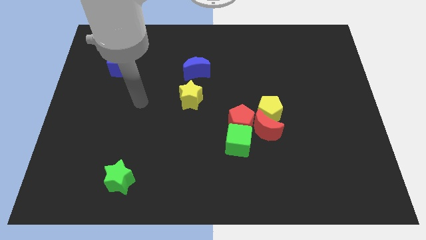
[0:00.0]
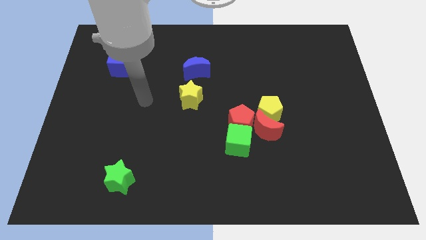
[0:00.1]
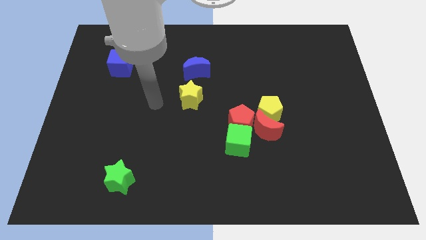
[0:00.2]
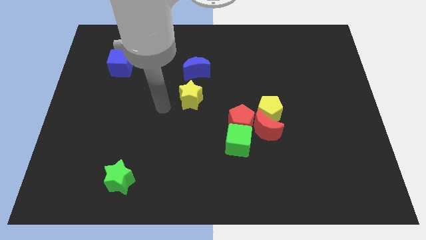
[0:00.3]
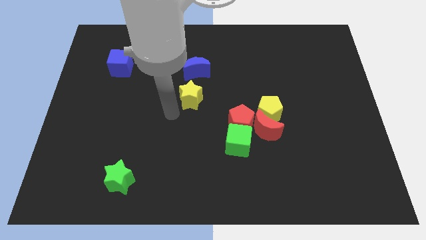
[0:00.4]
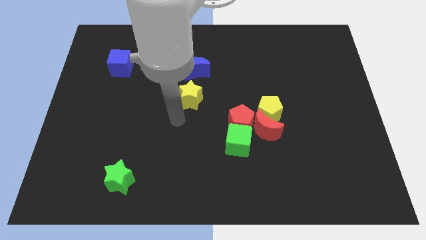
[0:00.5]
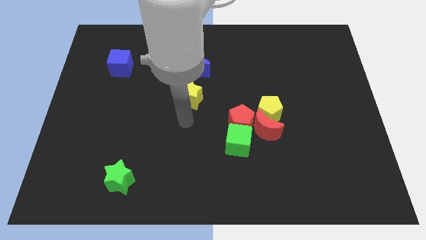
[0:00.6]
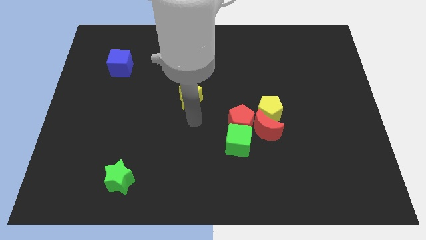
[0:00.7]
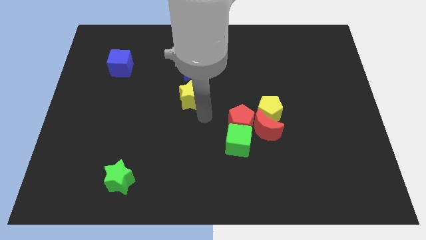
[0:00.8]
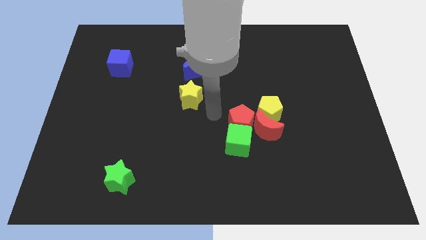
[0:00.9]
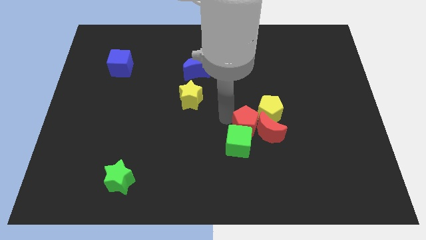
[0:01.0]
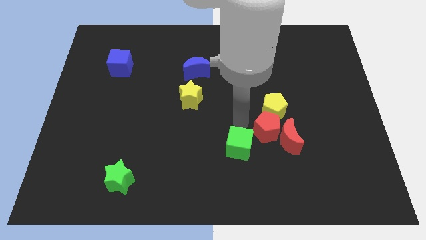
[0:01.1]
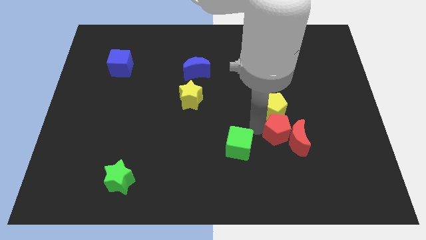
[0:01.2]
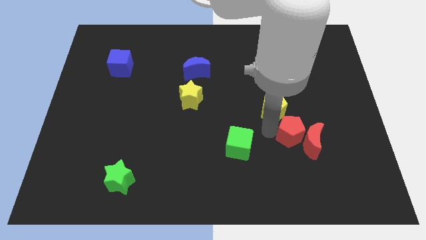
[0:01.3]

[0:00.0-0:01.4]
pull the red moon apart from the yellow pentagon, red pentagon, and green cube

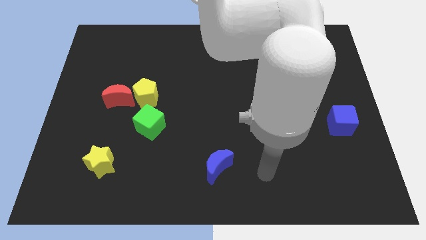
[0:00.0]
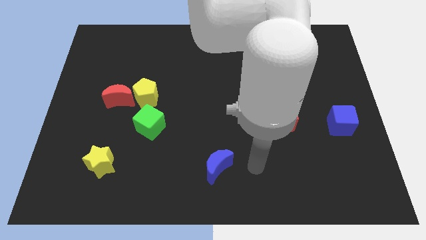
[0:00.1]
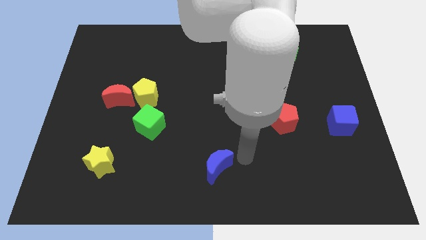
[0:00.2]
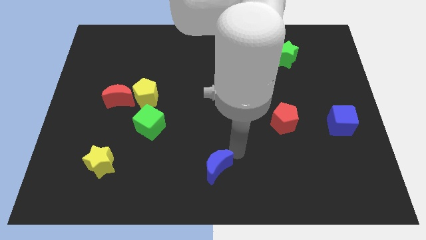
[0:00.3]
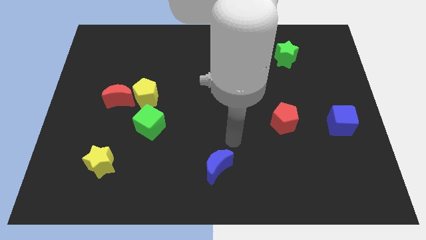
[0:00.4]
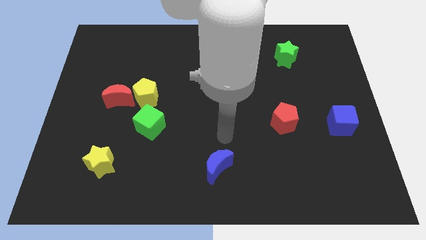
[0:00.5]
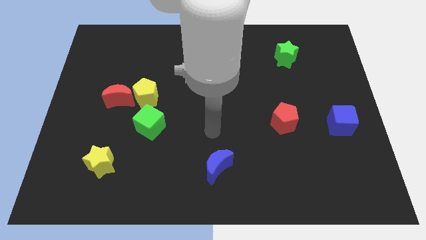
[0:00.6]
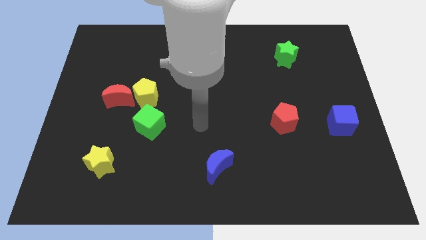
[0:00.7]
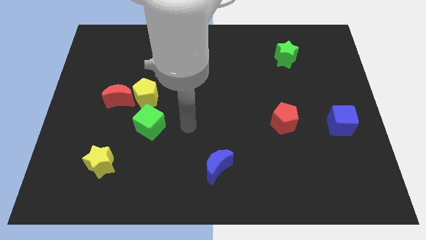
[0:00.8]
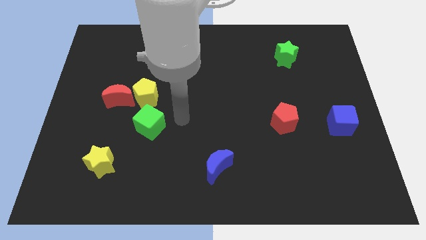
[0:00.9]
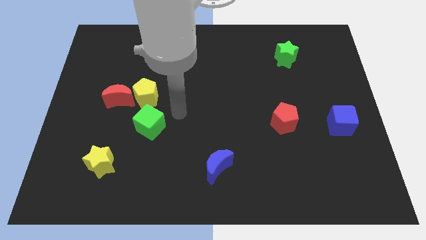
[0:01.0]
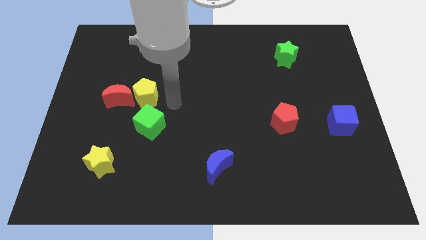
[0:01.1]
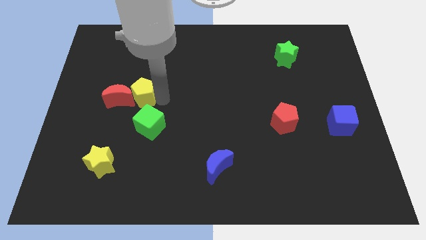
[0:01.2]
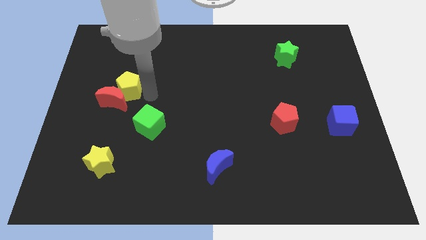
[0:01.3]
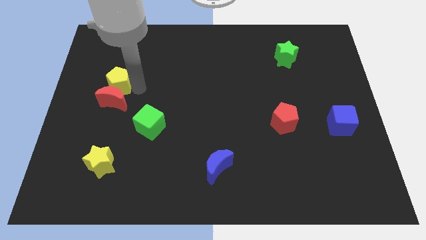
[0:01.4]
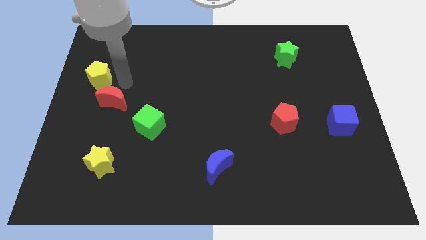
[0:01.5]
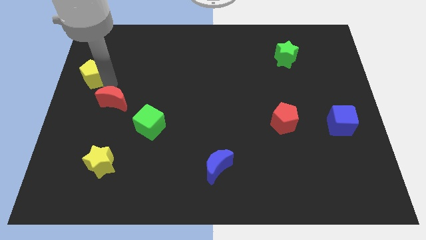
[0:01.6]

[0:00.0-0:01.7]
pull the red moon apart from the yellow pentagon

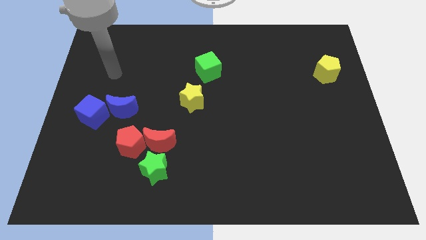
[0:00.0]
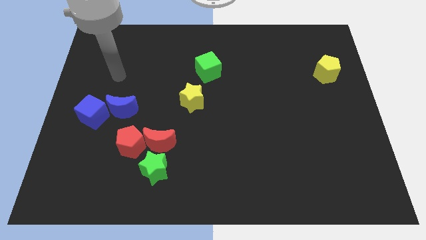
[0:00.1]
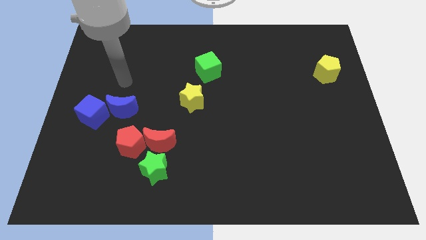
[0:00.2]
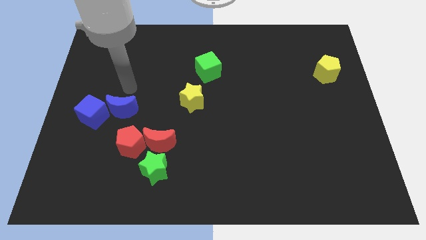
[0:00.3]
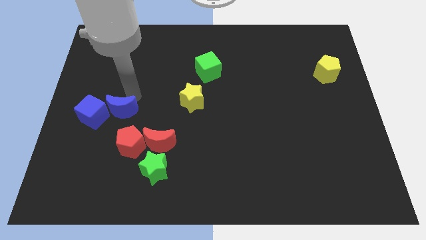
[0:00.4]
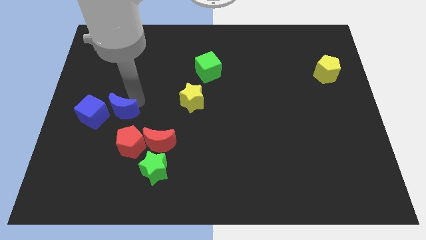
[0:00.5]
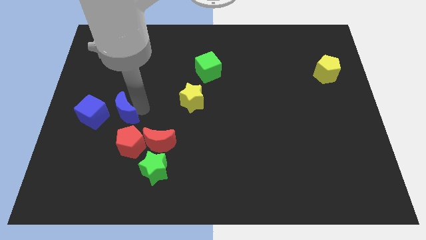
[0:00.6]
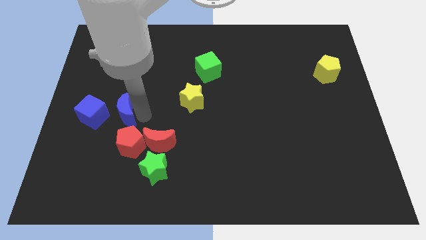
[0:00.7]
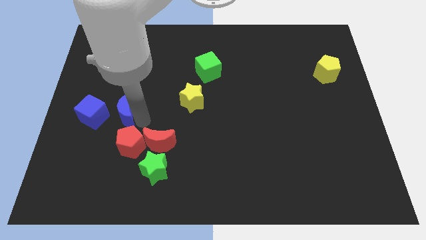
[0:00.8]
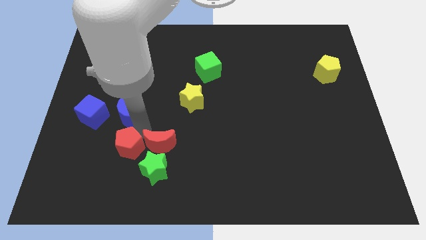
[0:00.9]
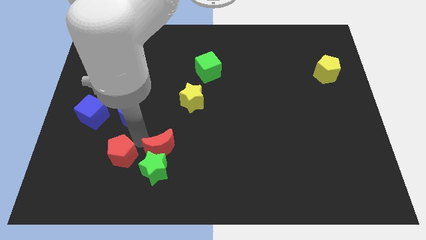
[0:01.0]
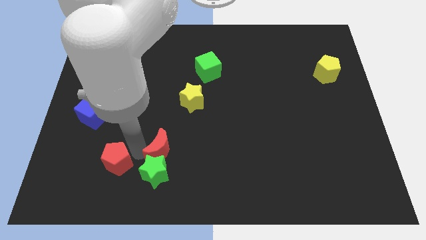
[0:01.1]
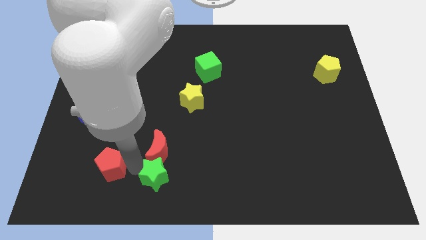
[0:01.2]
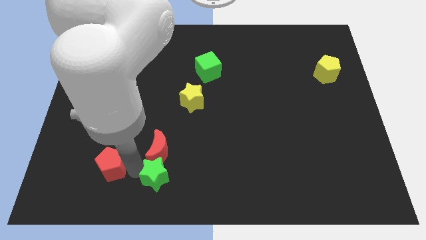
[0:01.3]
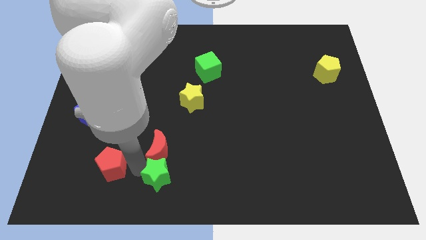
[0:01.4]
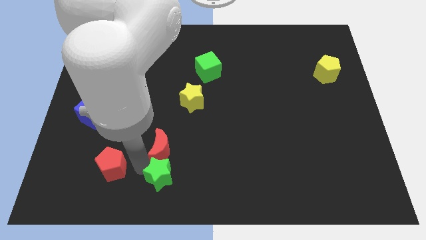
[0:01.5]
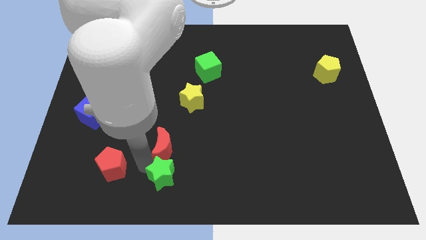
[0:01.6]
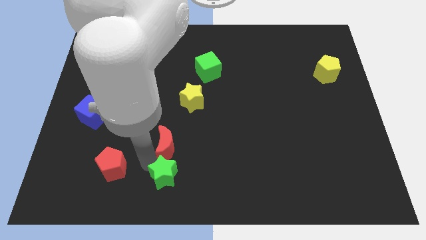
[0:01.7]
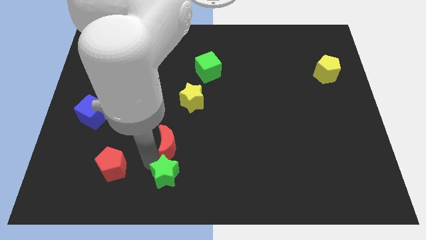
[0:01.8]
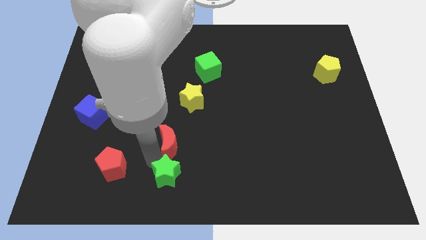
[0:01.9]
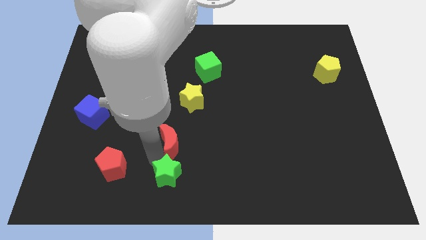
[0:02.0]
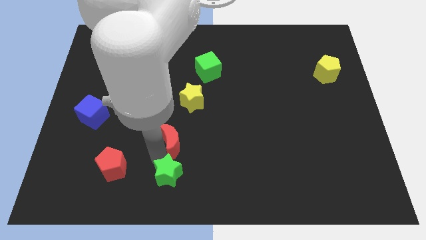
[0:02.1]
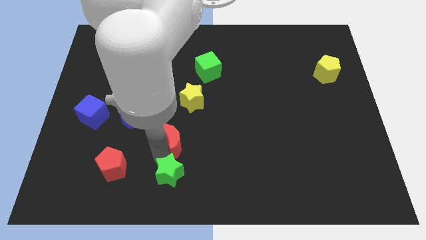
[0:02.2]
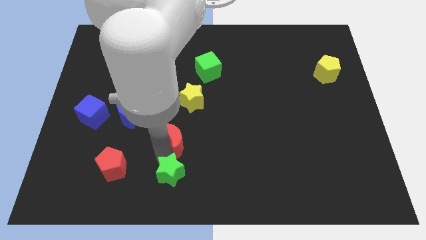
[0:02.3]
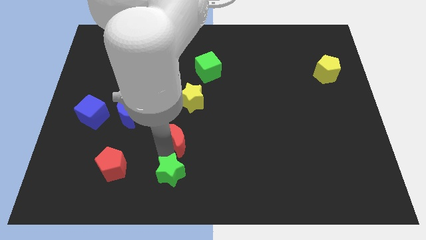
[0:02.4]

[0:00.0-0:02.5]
move the red moon away from the red pentagon and green star

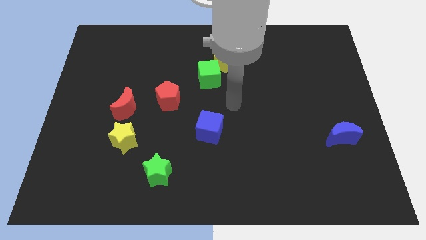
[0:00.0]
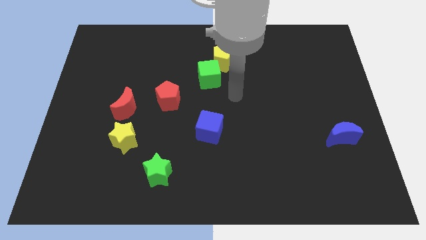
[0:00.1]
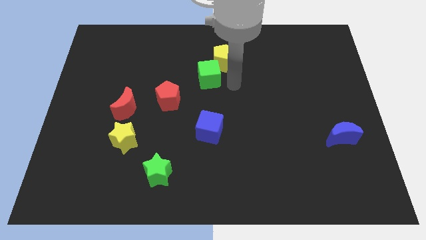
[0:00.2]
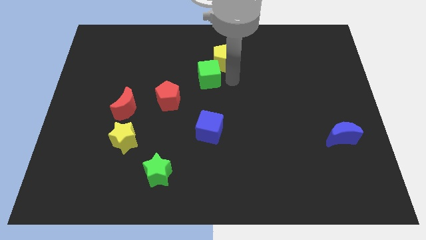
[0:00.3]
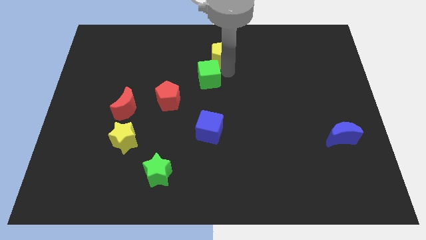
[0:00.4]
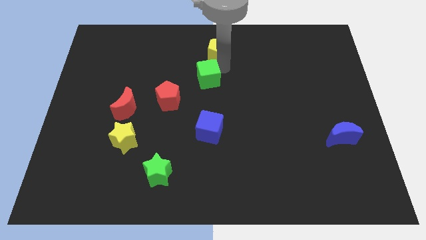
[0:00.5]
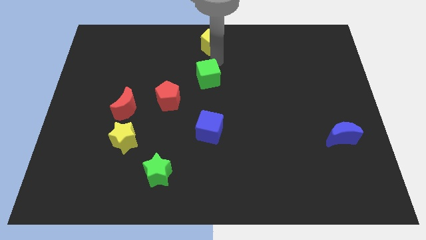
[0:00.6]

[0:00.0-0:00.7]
move the green cube away from the yellow pentagon

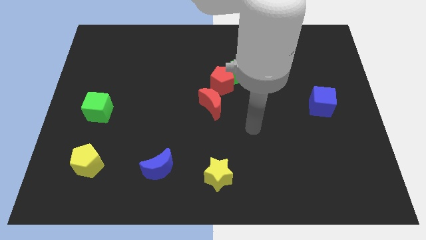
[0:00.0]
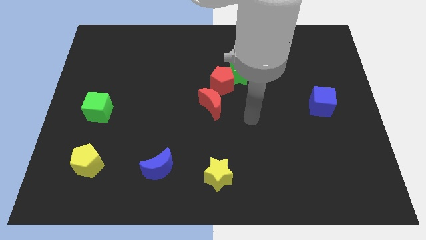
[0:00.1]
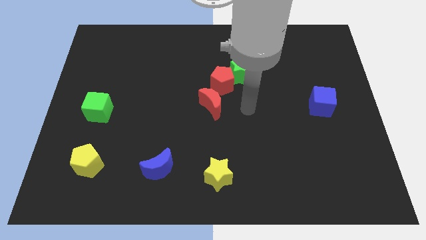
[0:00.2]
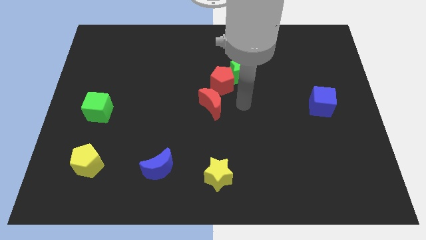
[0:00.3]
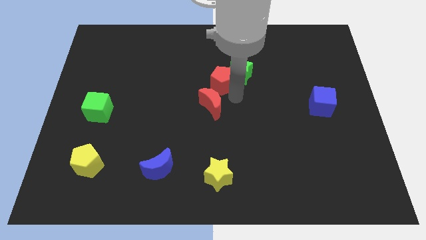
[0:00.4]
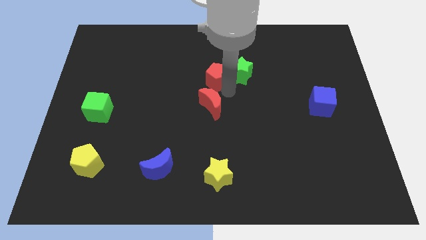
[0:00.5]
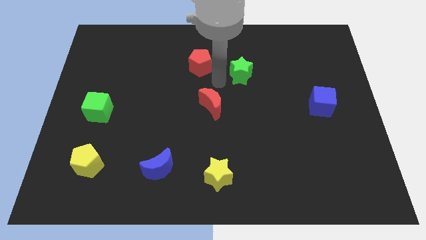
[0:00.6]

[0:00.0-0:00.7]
move the green star away from the red pentagon

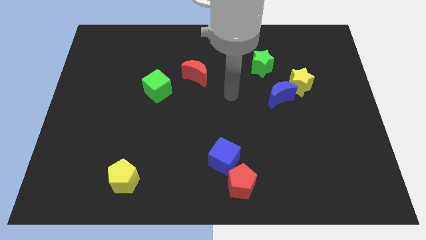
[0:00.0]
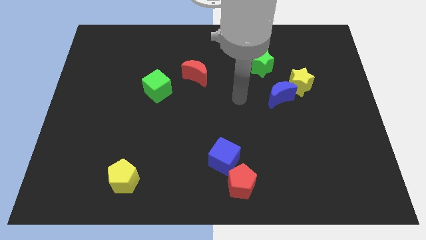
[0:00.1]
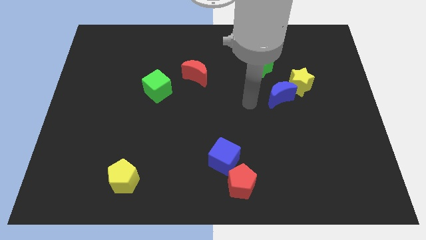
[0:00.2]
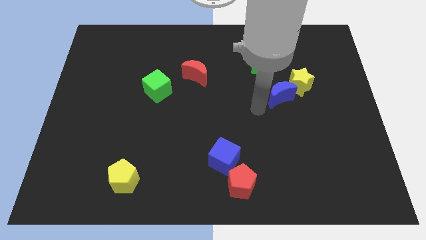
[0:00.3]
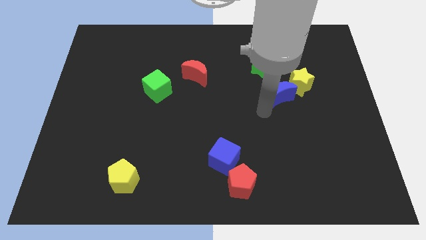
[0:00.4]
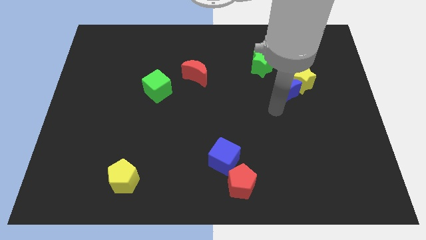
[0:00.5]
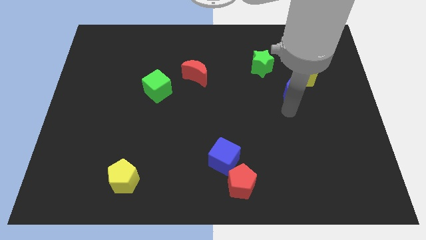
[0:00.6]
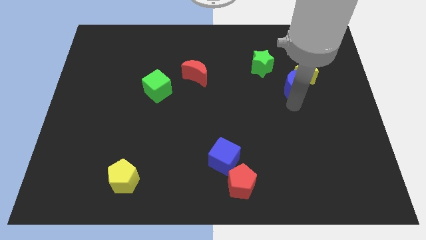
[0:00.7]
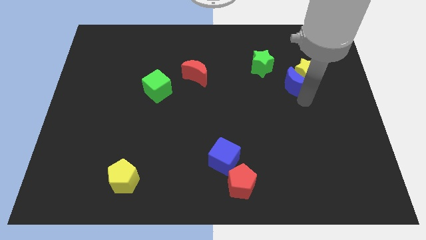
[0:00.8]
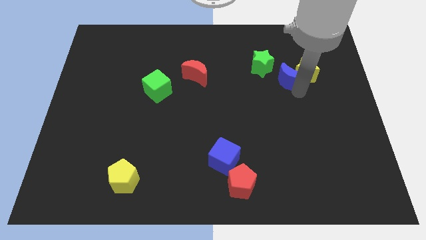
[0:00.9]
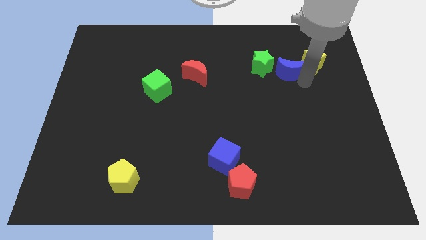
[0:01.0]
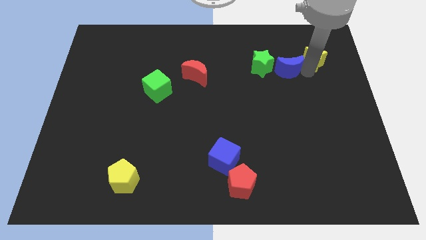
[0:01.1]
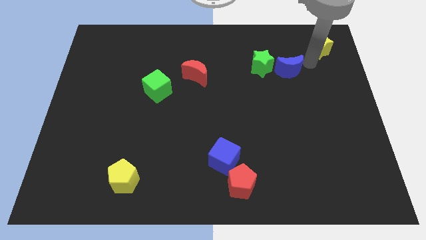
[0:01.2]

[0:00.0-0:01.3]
separate the blue moon from the yellow star

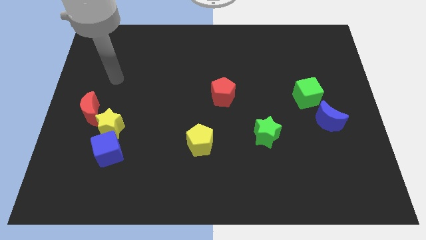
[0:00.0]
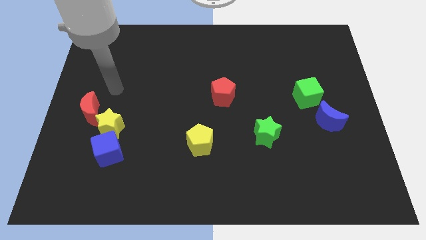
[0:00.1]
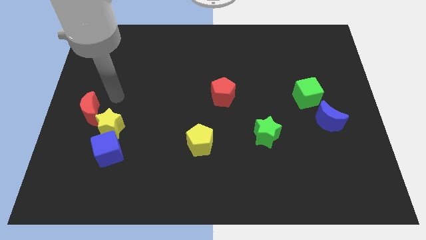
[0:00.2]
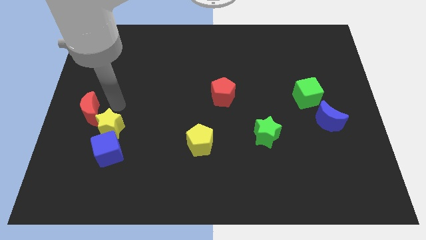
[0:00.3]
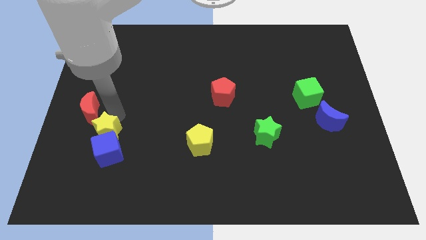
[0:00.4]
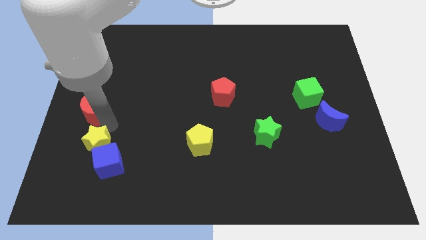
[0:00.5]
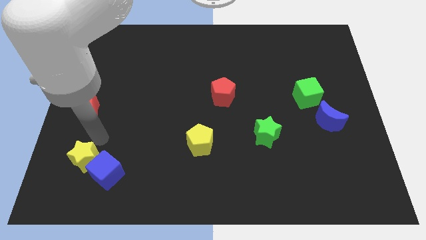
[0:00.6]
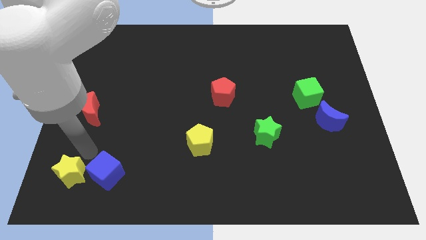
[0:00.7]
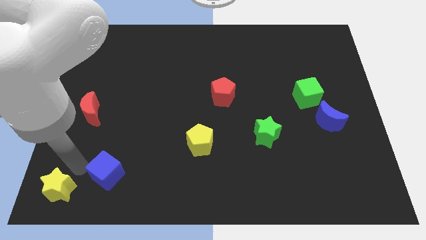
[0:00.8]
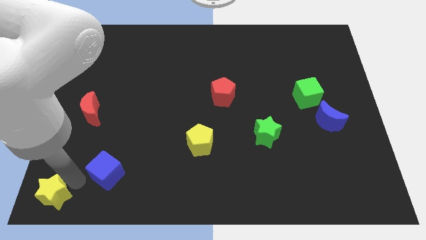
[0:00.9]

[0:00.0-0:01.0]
pull the blue cube apart from the yellow star
